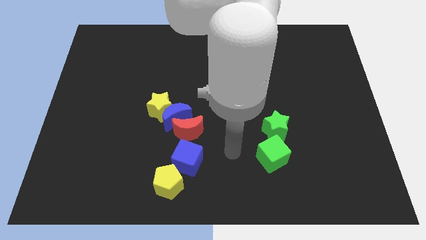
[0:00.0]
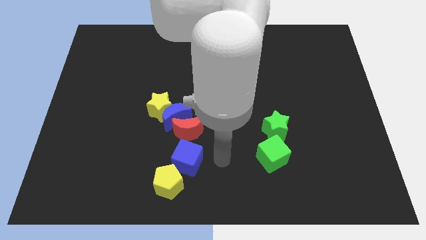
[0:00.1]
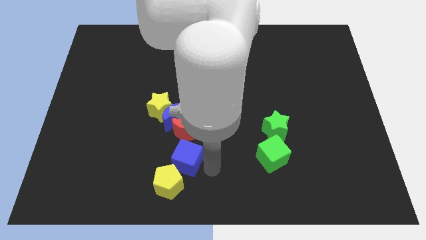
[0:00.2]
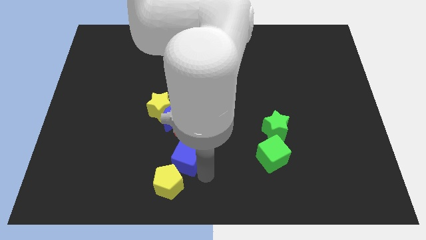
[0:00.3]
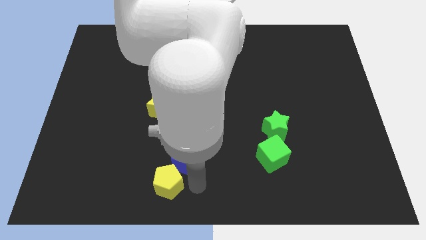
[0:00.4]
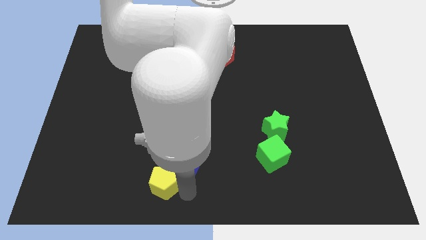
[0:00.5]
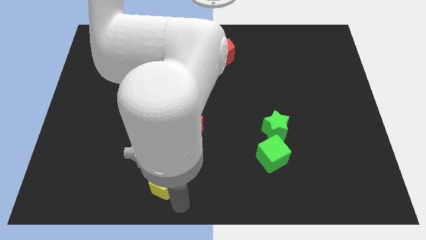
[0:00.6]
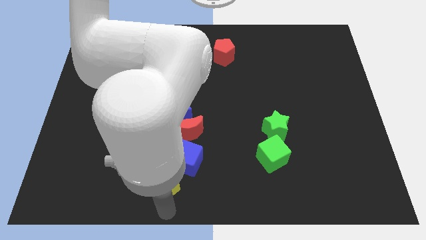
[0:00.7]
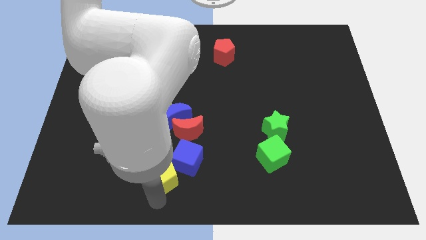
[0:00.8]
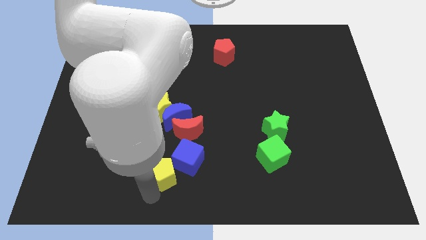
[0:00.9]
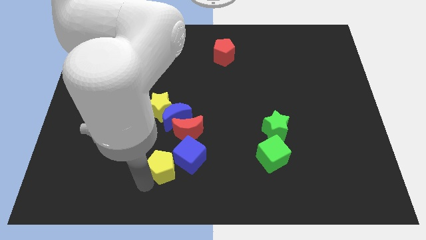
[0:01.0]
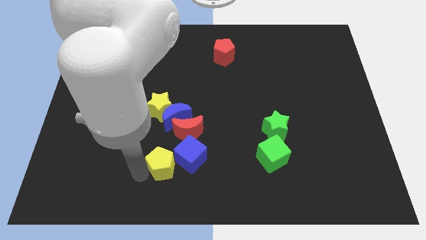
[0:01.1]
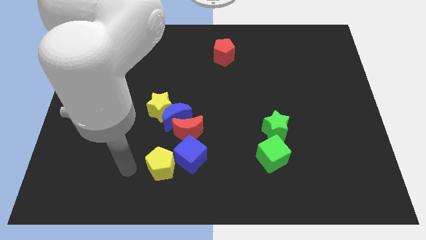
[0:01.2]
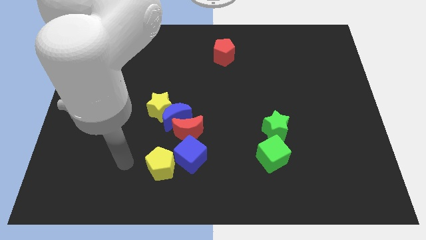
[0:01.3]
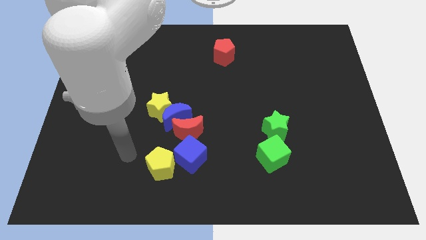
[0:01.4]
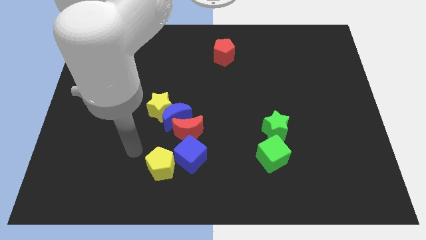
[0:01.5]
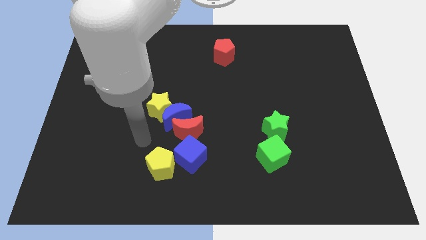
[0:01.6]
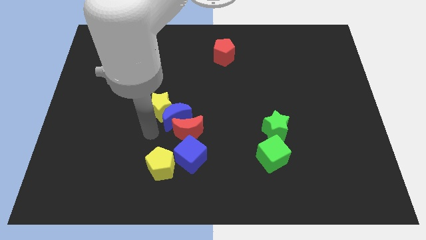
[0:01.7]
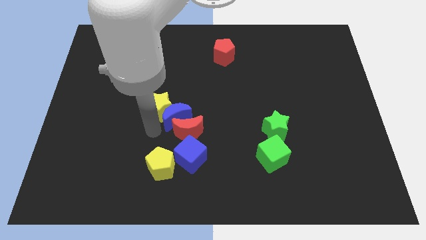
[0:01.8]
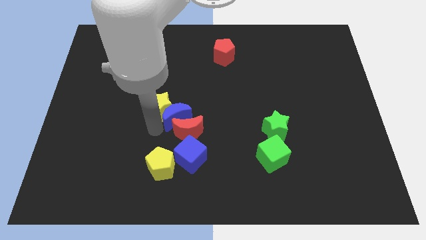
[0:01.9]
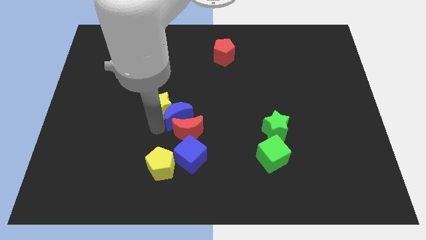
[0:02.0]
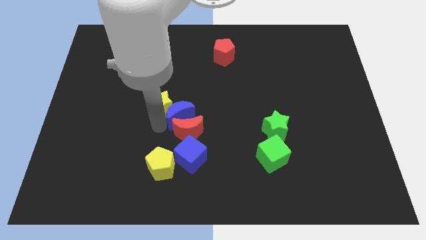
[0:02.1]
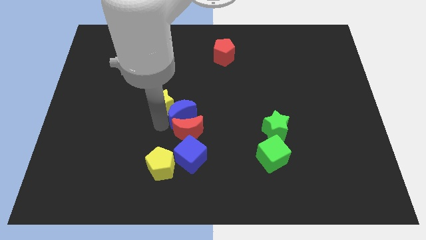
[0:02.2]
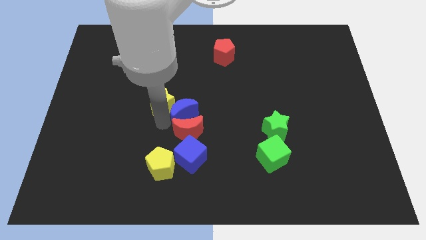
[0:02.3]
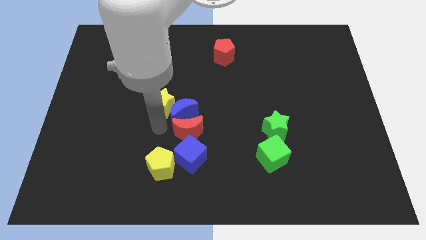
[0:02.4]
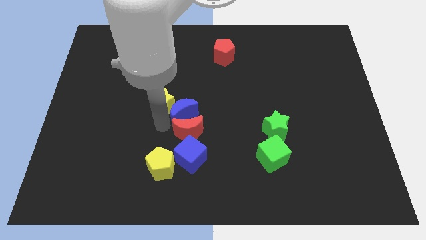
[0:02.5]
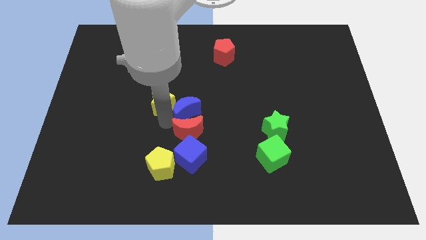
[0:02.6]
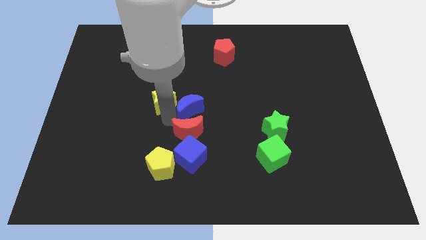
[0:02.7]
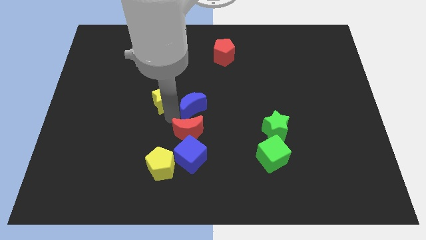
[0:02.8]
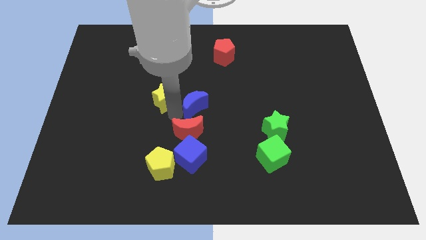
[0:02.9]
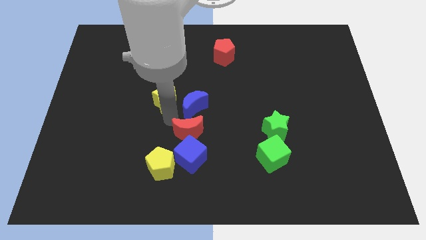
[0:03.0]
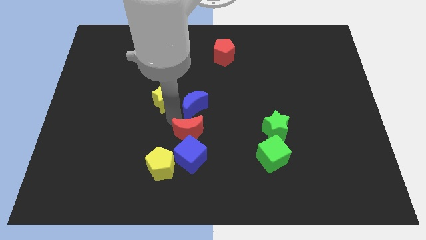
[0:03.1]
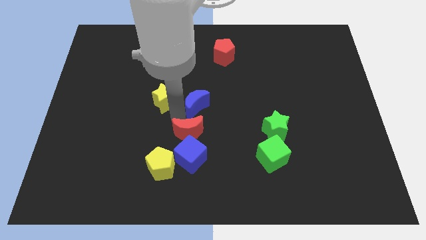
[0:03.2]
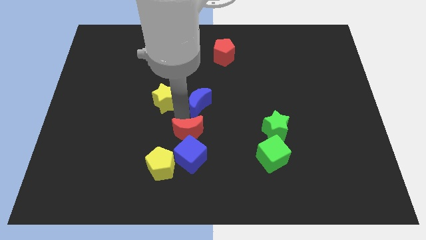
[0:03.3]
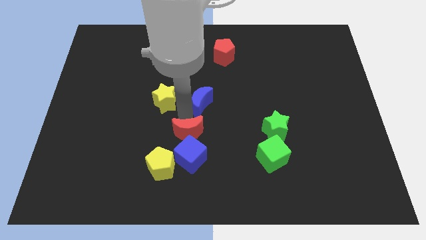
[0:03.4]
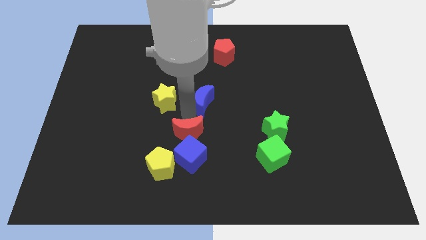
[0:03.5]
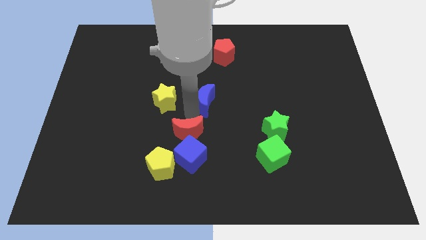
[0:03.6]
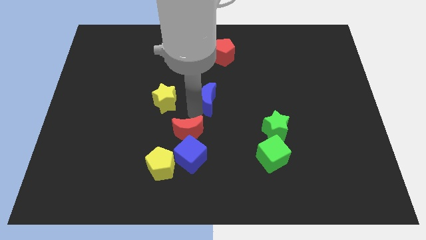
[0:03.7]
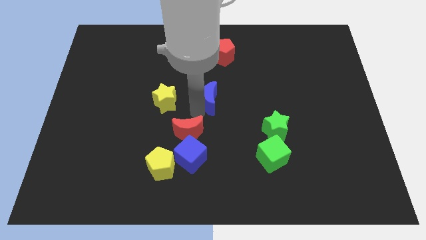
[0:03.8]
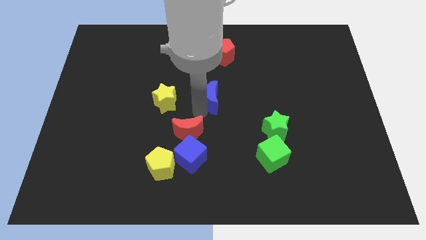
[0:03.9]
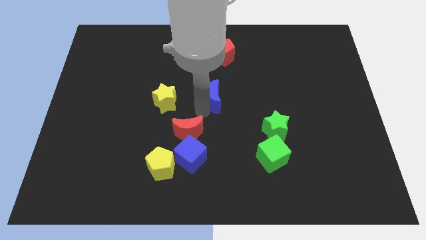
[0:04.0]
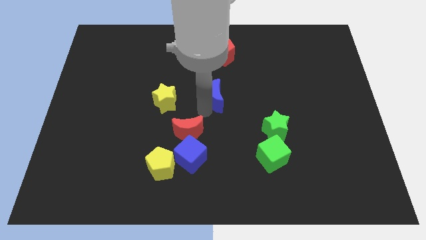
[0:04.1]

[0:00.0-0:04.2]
move the blue moon away from the red moon and yellow star

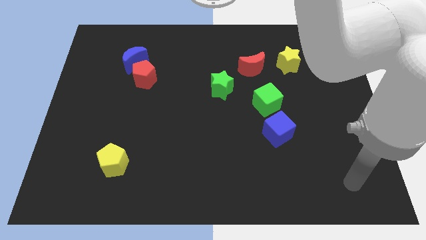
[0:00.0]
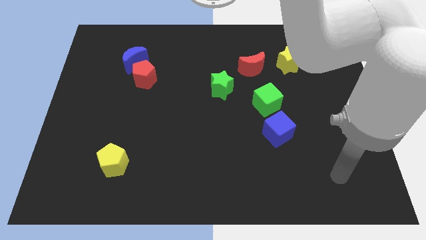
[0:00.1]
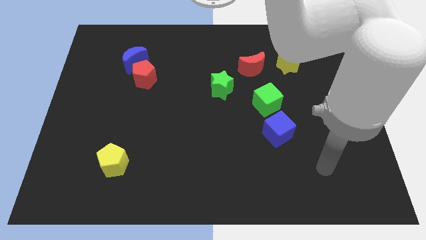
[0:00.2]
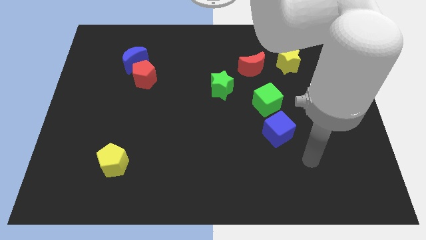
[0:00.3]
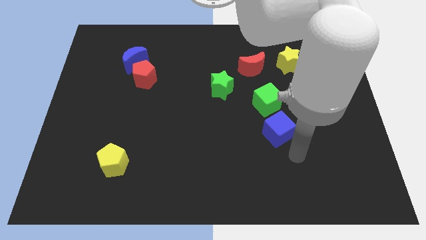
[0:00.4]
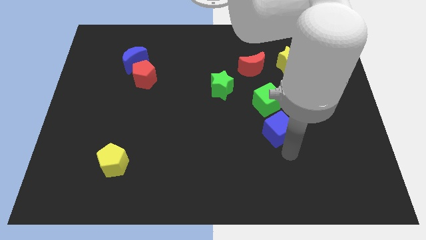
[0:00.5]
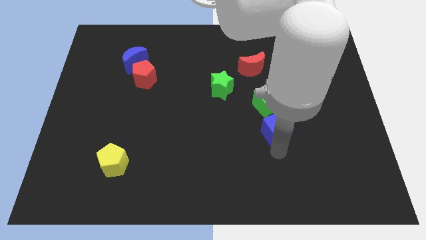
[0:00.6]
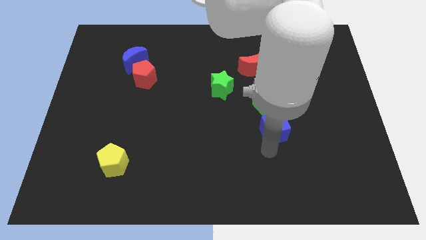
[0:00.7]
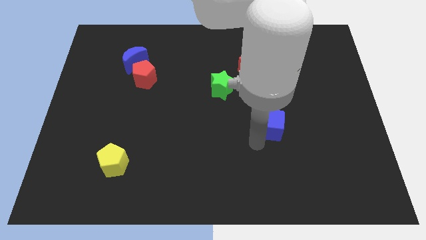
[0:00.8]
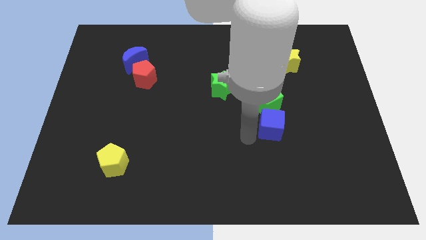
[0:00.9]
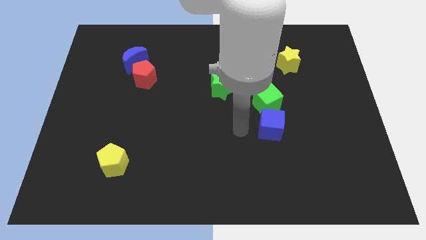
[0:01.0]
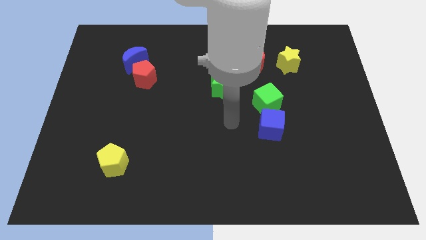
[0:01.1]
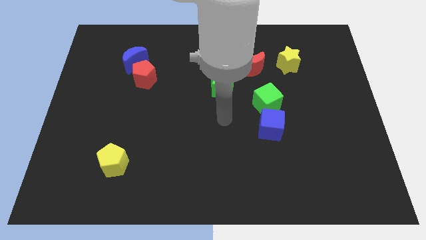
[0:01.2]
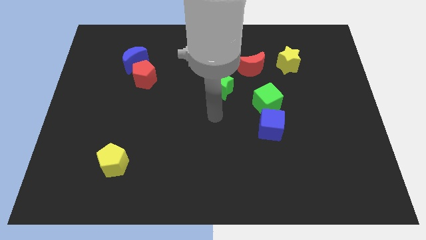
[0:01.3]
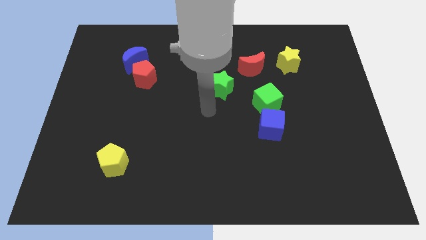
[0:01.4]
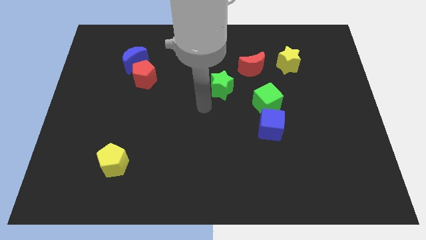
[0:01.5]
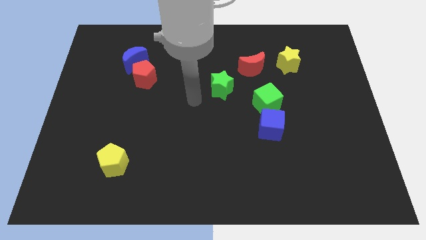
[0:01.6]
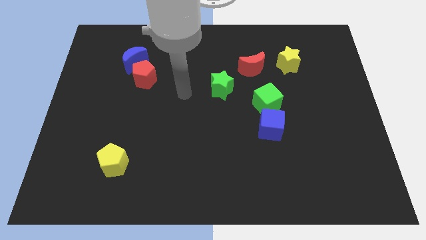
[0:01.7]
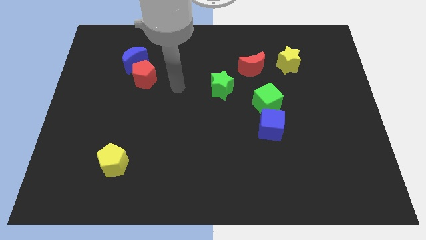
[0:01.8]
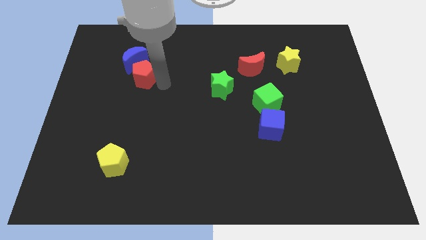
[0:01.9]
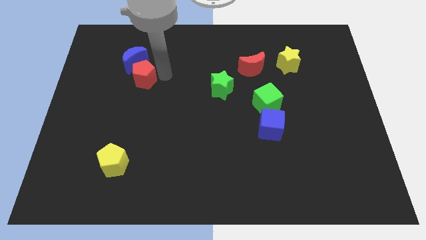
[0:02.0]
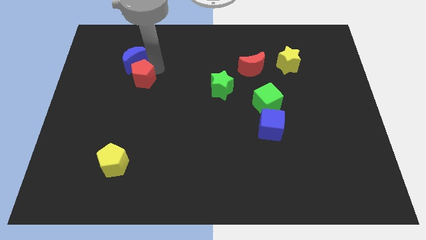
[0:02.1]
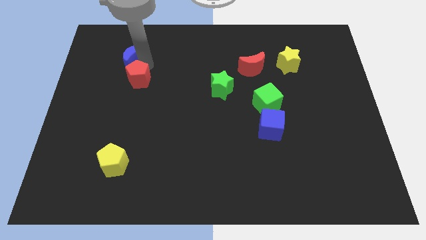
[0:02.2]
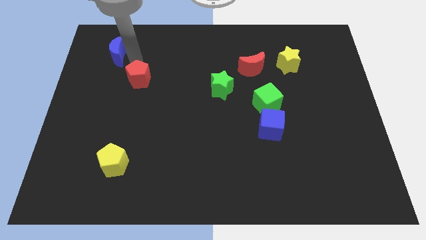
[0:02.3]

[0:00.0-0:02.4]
separate the red pentagon from the blue moon

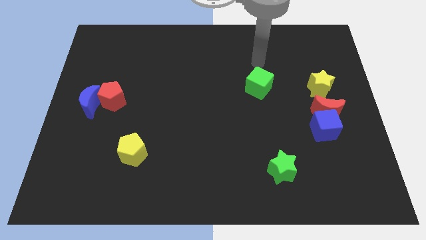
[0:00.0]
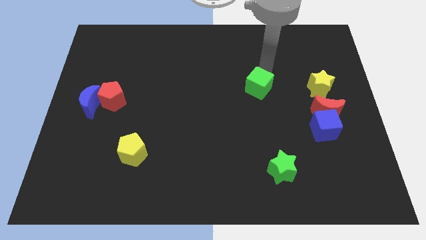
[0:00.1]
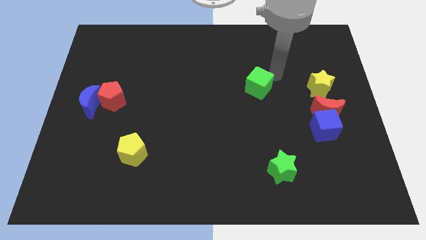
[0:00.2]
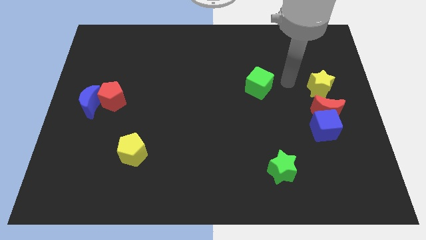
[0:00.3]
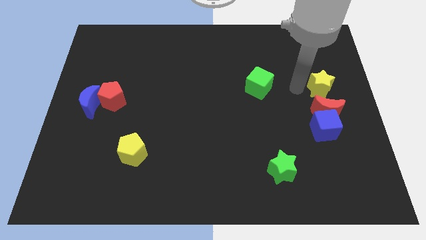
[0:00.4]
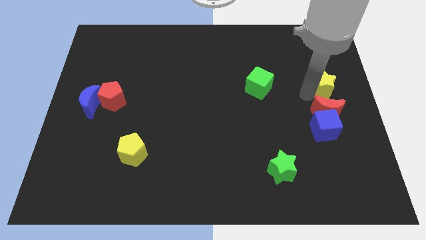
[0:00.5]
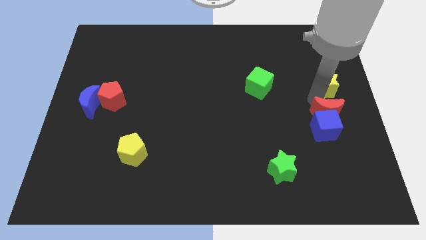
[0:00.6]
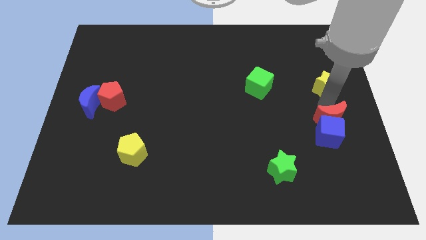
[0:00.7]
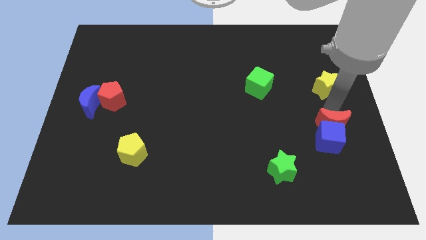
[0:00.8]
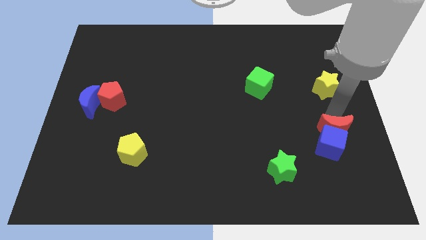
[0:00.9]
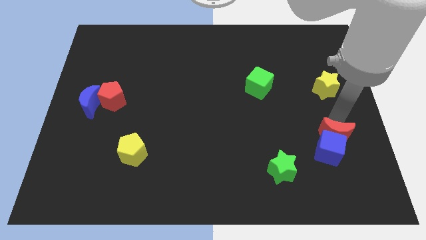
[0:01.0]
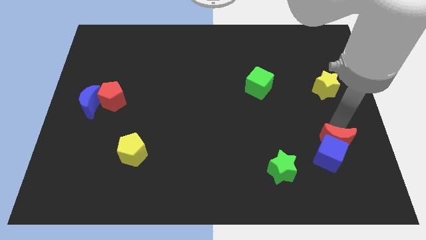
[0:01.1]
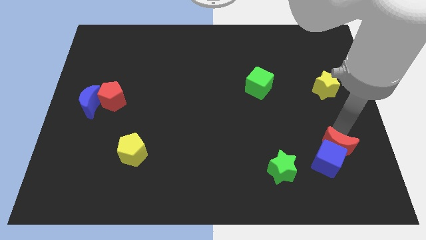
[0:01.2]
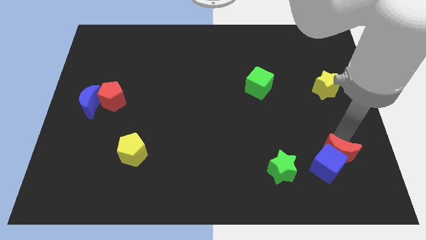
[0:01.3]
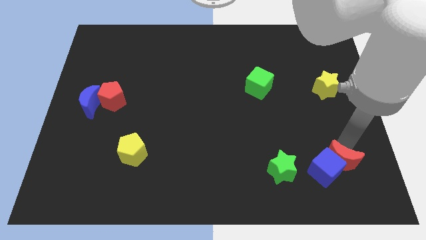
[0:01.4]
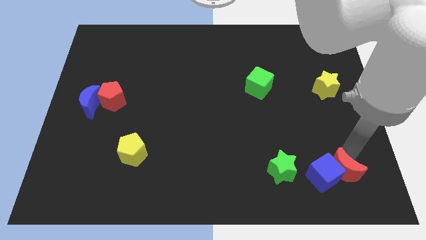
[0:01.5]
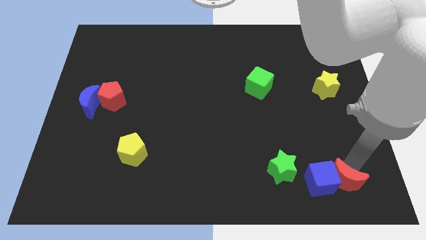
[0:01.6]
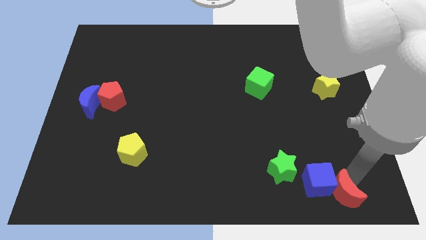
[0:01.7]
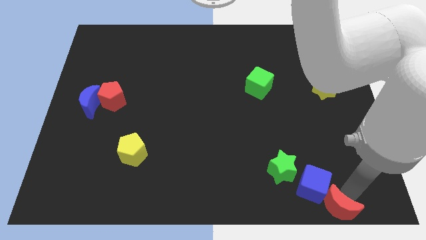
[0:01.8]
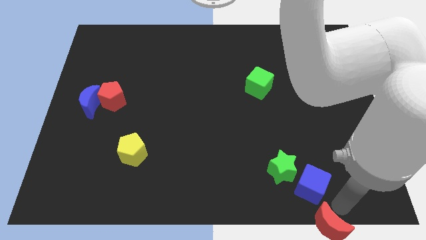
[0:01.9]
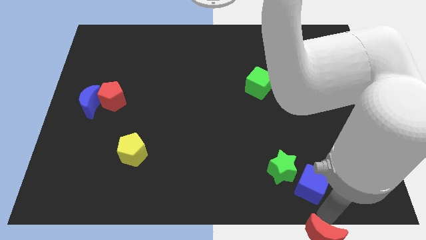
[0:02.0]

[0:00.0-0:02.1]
separate the blue cube from the red moon

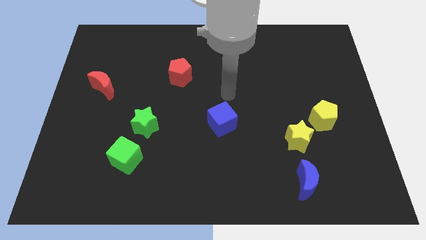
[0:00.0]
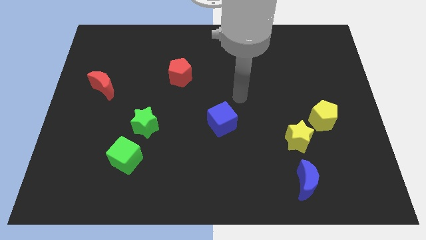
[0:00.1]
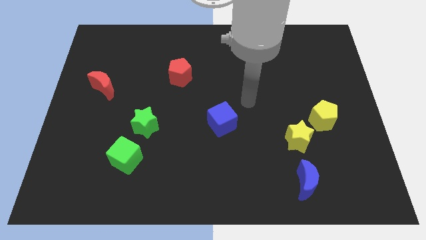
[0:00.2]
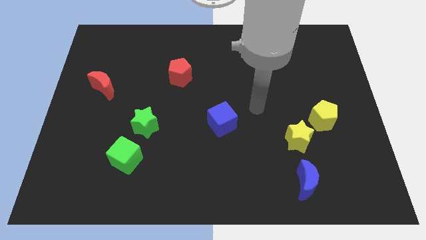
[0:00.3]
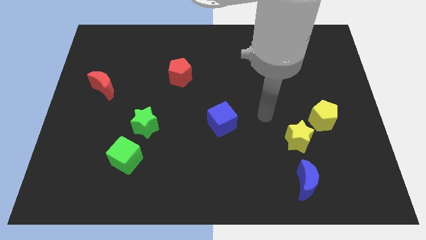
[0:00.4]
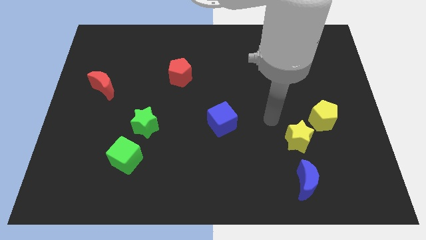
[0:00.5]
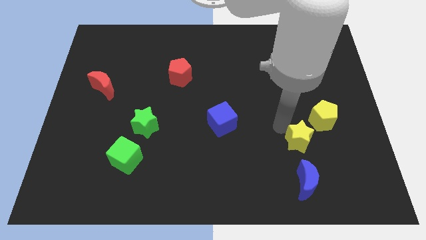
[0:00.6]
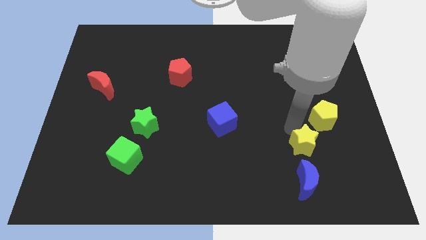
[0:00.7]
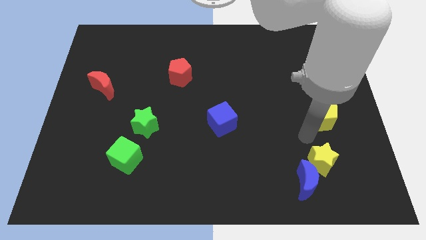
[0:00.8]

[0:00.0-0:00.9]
pull the yellow pentagon apart from the yellow star
